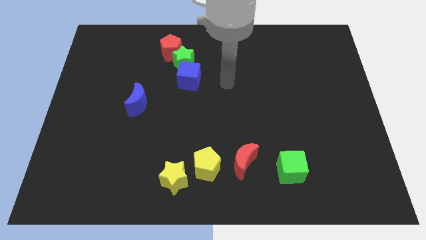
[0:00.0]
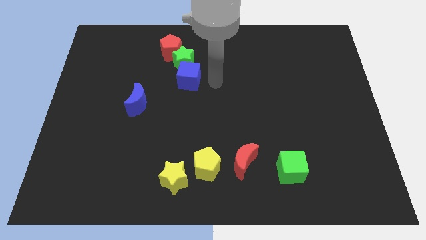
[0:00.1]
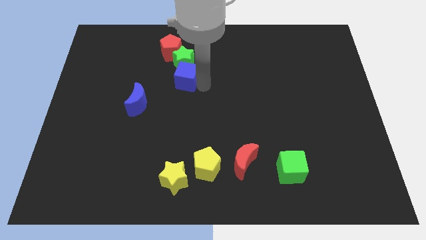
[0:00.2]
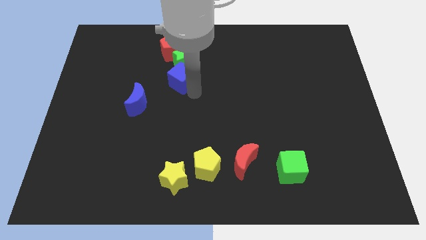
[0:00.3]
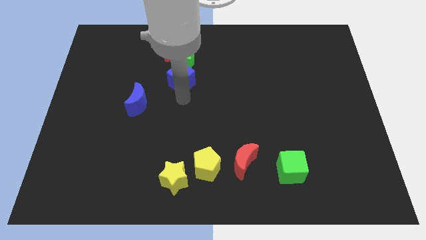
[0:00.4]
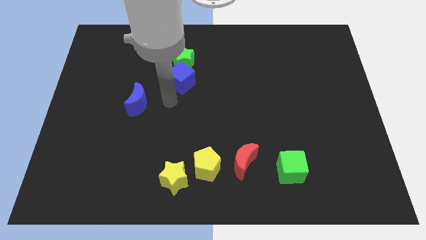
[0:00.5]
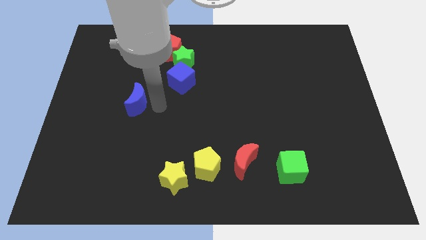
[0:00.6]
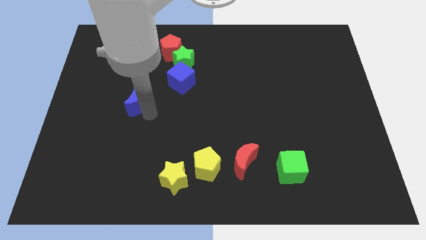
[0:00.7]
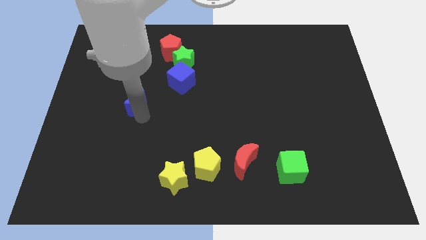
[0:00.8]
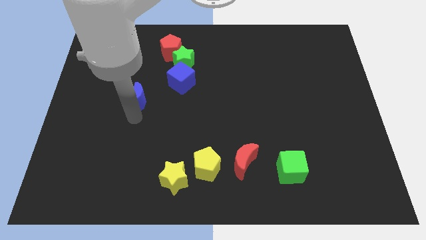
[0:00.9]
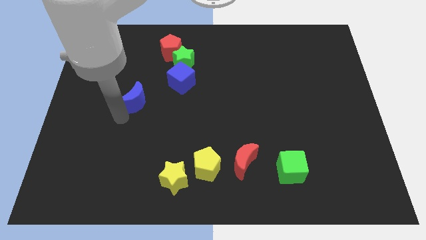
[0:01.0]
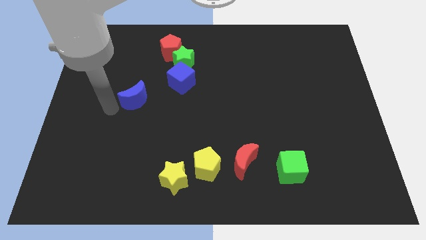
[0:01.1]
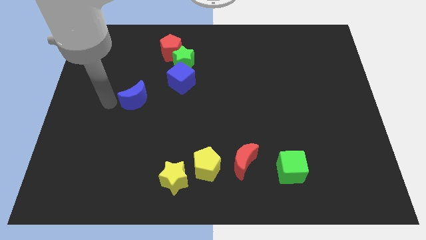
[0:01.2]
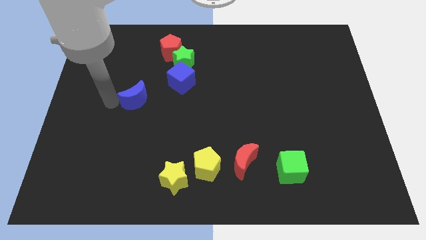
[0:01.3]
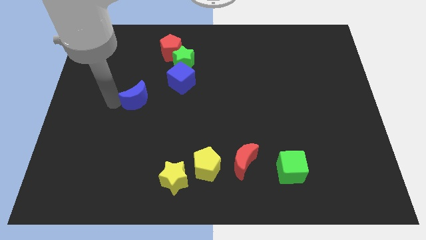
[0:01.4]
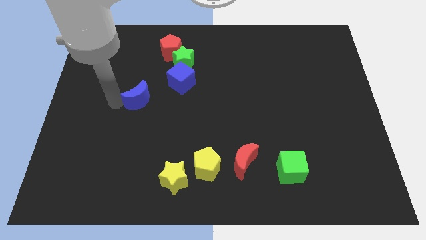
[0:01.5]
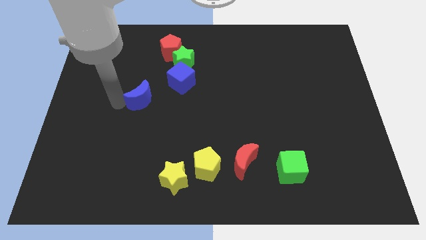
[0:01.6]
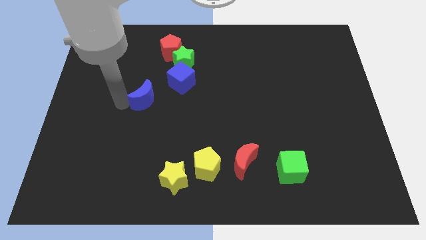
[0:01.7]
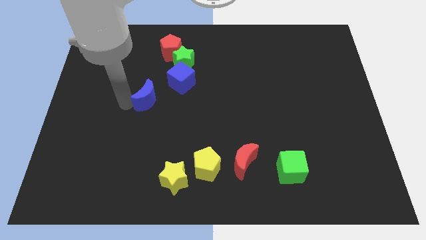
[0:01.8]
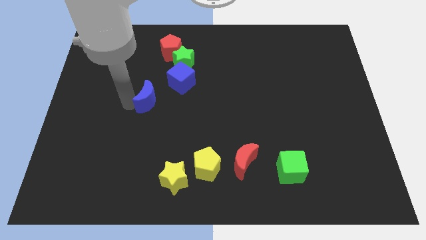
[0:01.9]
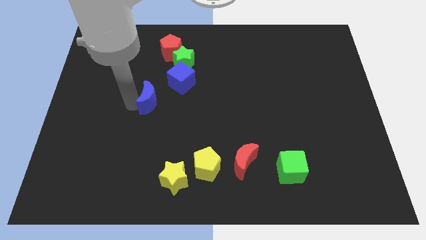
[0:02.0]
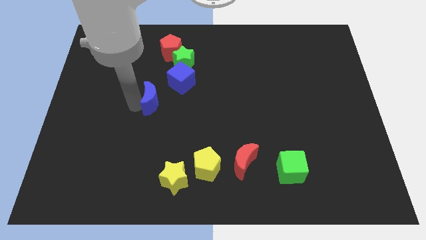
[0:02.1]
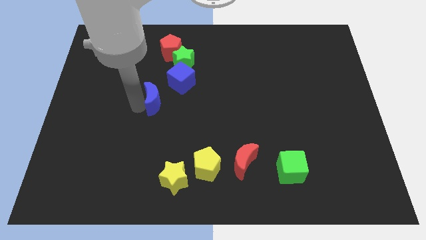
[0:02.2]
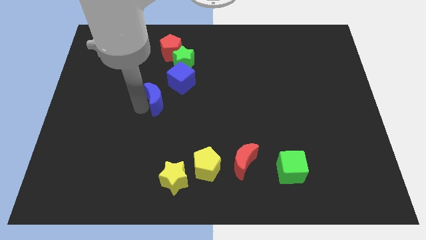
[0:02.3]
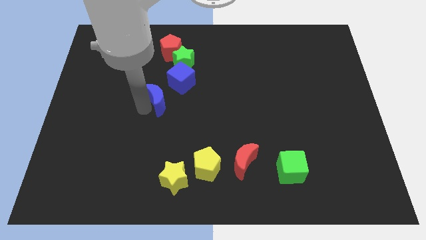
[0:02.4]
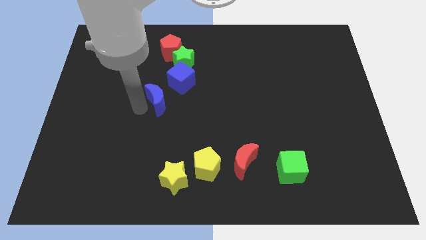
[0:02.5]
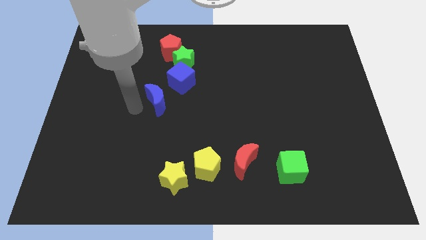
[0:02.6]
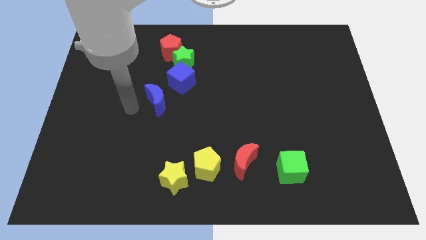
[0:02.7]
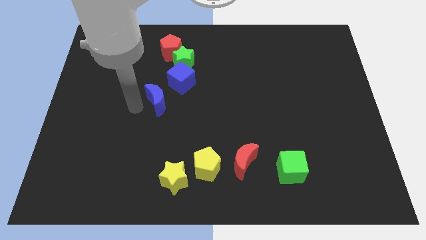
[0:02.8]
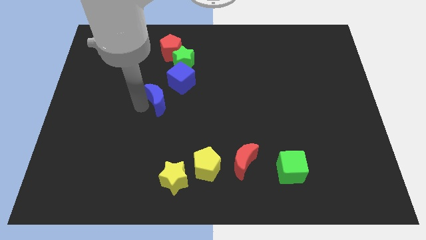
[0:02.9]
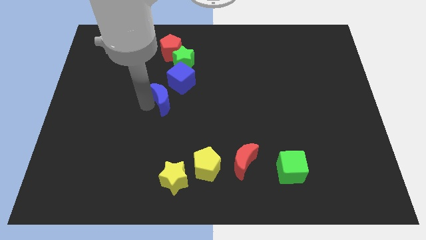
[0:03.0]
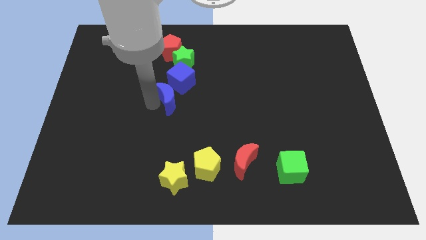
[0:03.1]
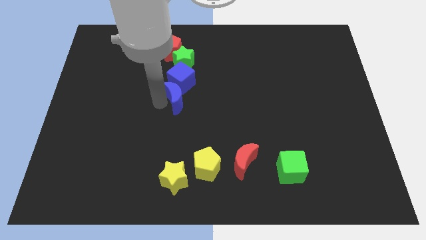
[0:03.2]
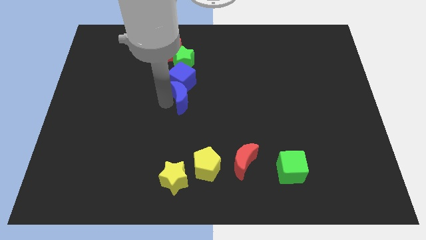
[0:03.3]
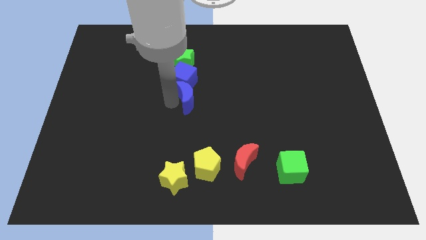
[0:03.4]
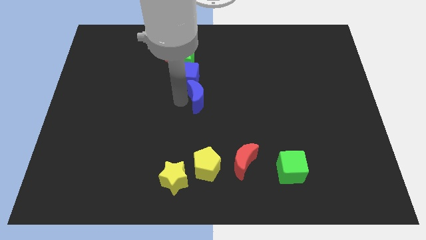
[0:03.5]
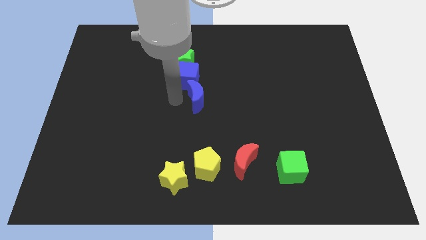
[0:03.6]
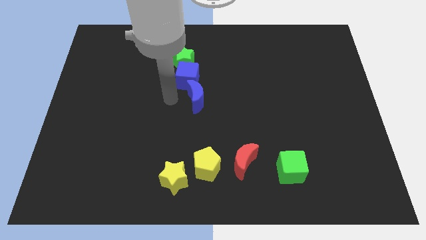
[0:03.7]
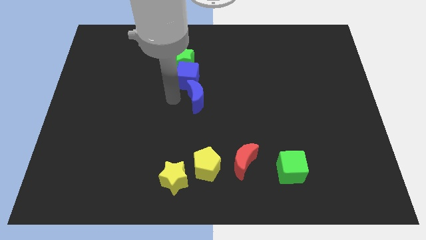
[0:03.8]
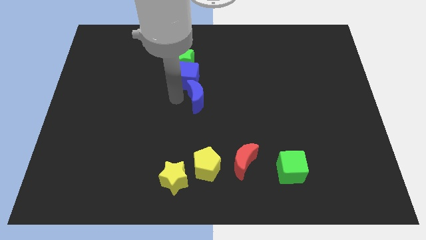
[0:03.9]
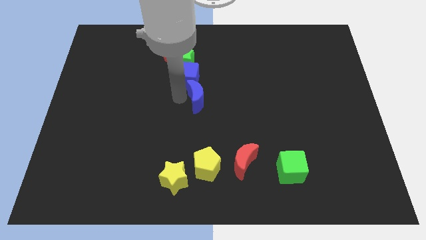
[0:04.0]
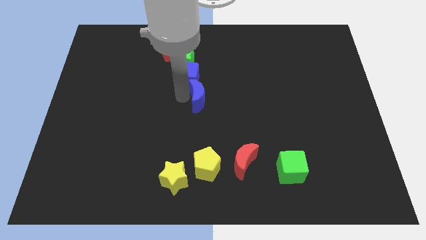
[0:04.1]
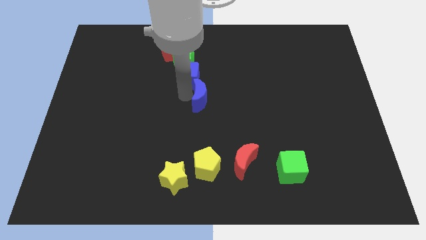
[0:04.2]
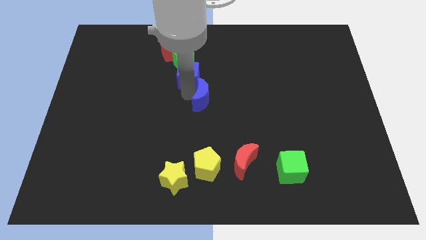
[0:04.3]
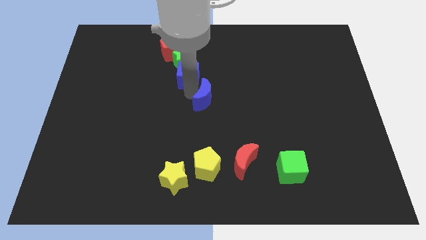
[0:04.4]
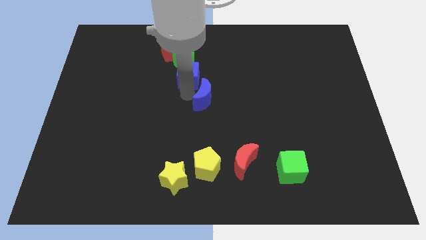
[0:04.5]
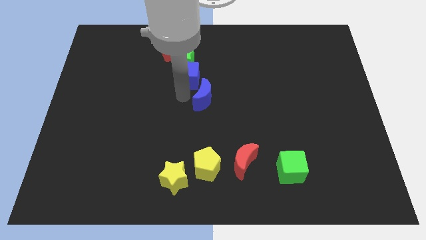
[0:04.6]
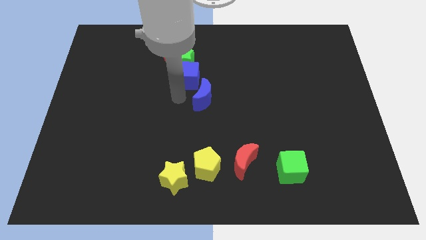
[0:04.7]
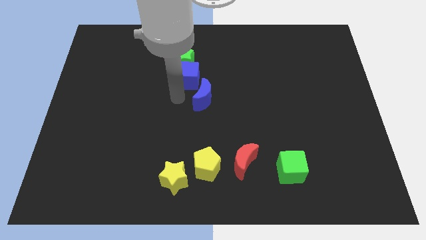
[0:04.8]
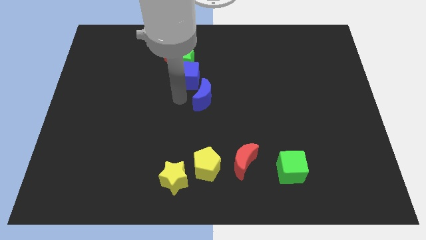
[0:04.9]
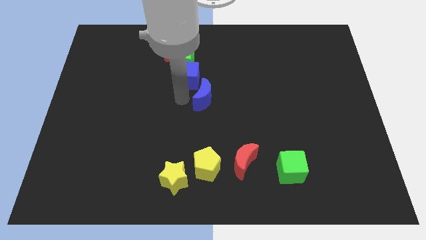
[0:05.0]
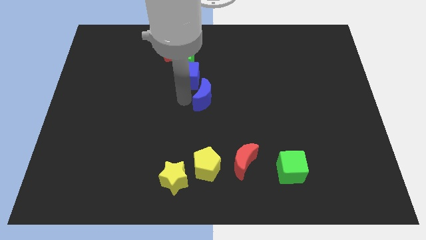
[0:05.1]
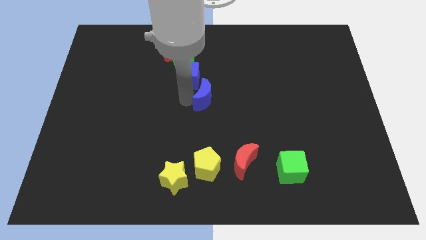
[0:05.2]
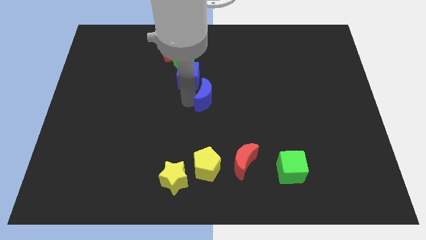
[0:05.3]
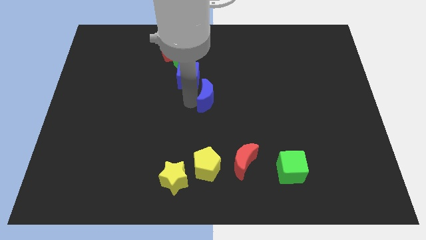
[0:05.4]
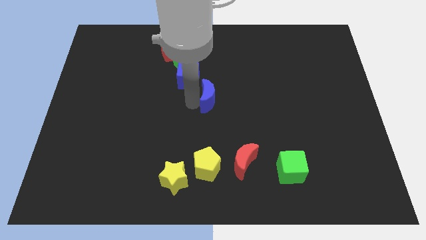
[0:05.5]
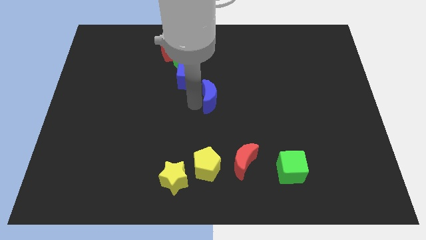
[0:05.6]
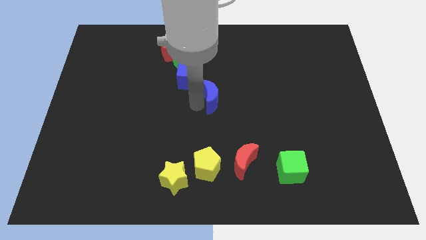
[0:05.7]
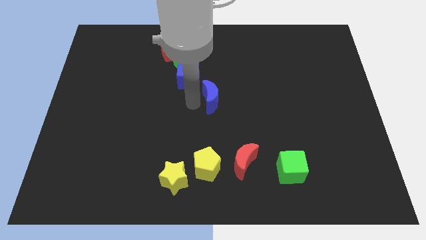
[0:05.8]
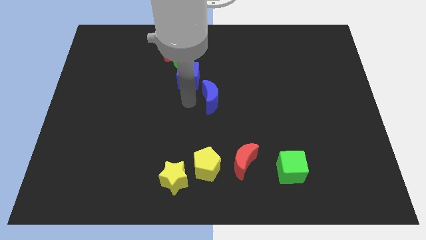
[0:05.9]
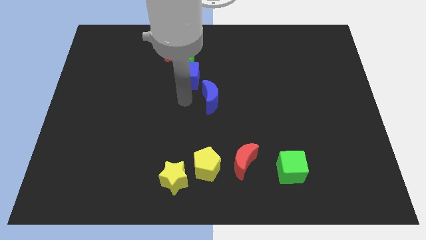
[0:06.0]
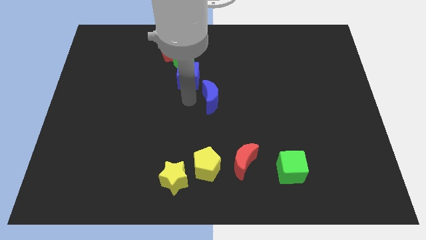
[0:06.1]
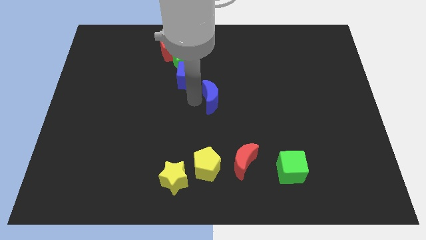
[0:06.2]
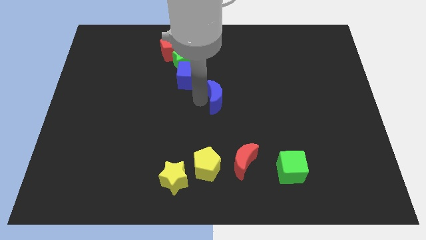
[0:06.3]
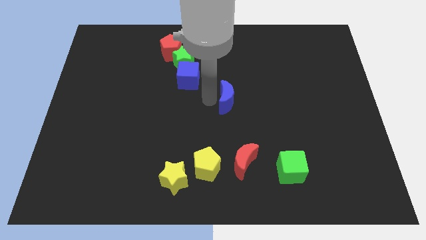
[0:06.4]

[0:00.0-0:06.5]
move the blue moon to the right

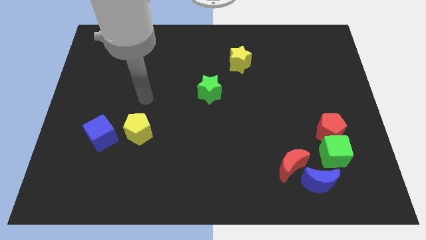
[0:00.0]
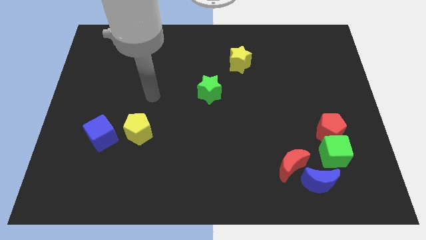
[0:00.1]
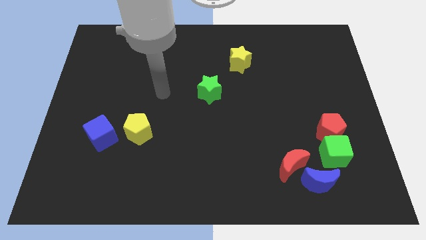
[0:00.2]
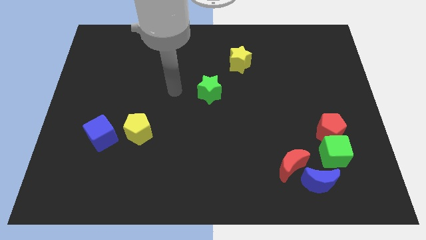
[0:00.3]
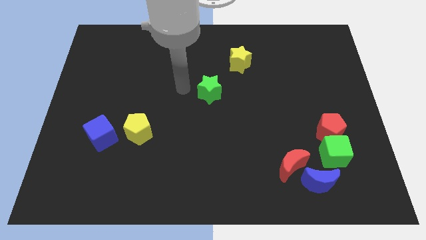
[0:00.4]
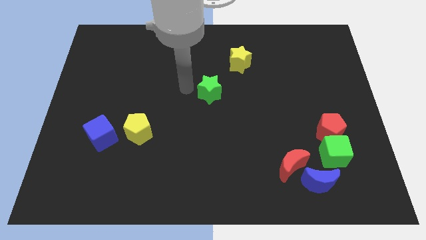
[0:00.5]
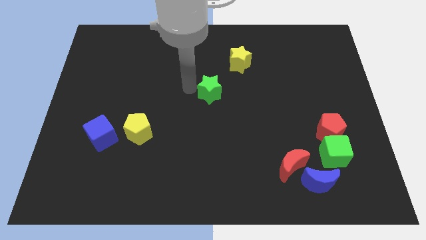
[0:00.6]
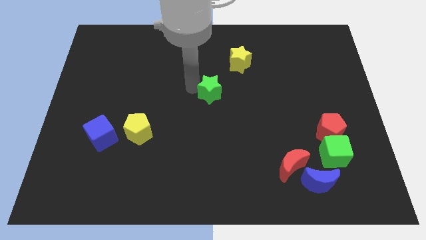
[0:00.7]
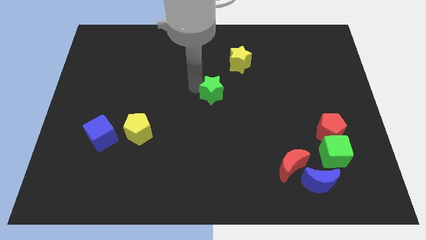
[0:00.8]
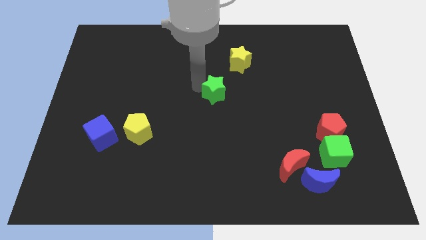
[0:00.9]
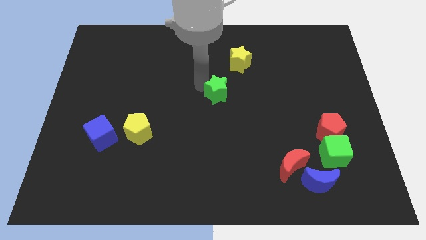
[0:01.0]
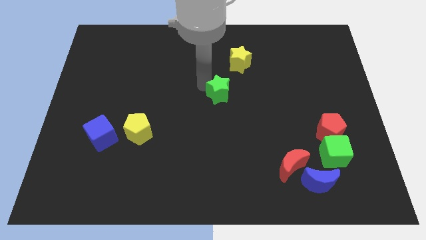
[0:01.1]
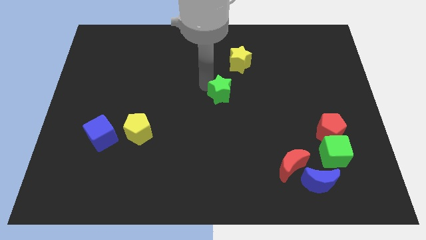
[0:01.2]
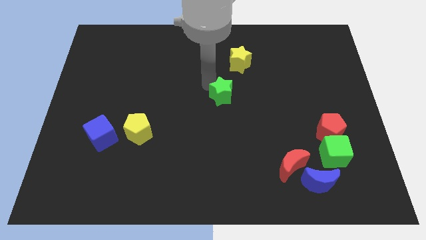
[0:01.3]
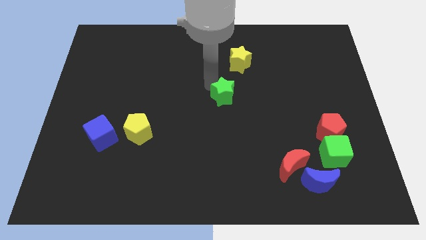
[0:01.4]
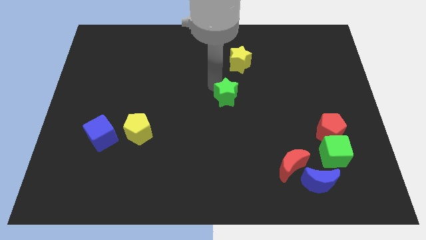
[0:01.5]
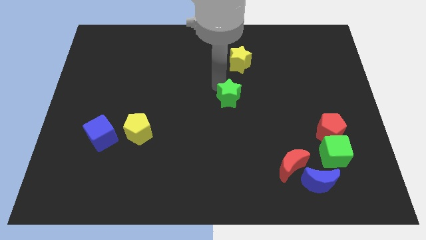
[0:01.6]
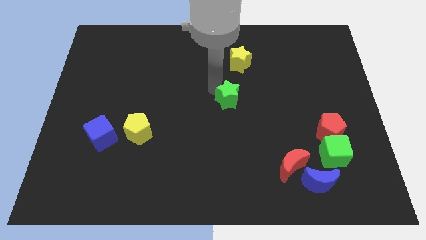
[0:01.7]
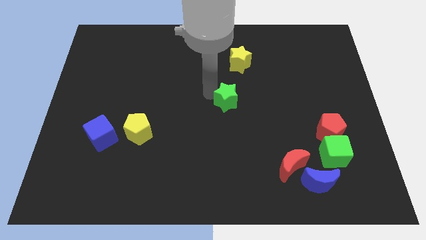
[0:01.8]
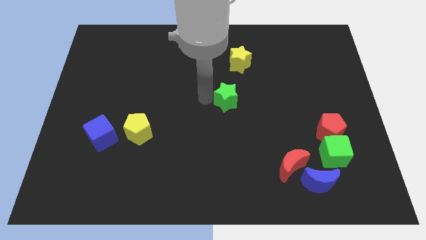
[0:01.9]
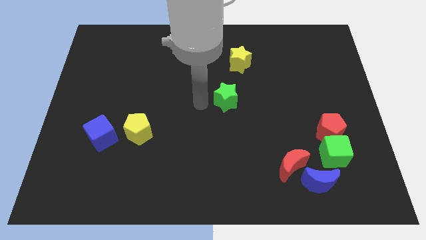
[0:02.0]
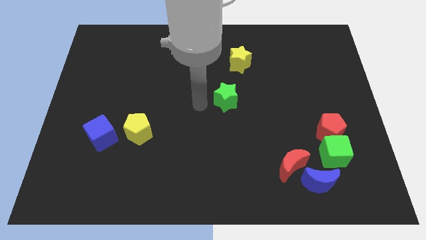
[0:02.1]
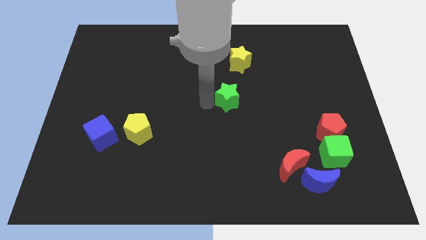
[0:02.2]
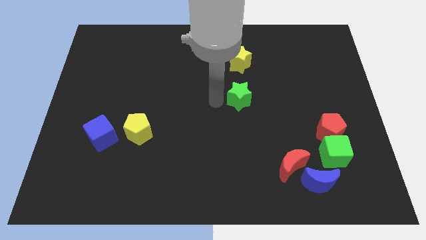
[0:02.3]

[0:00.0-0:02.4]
slide the green star to the right somewhat
